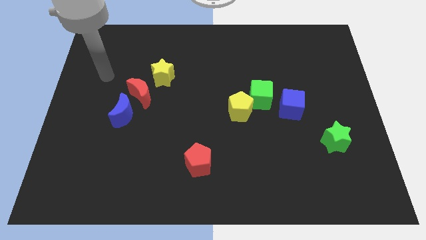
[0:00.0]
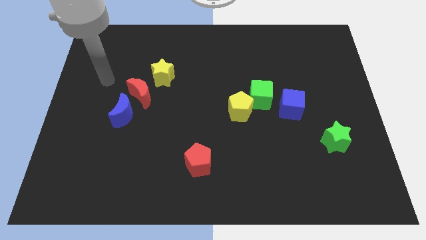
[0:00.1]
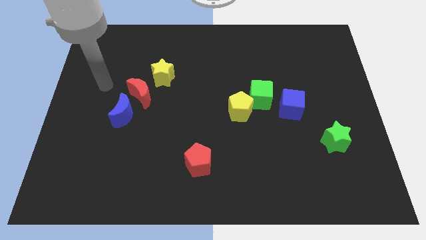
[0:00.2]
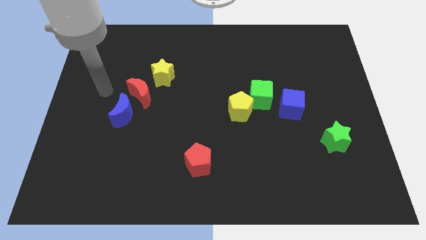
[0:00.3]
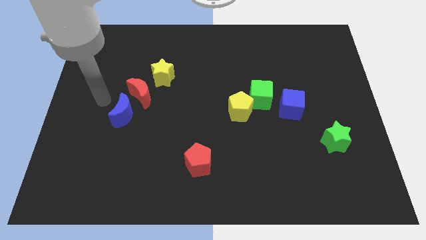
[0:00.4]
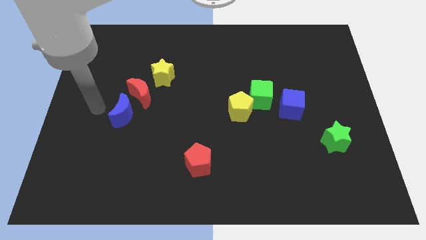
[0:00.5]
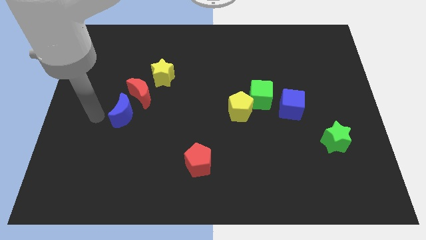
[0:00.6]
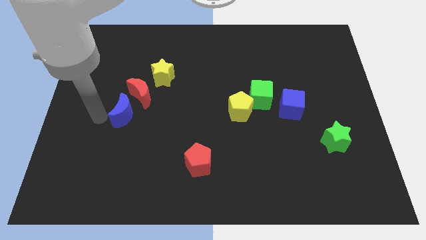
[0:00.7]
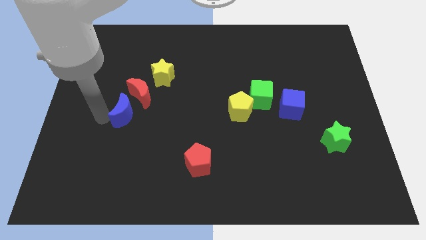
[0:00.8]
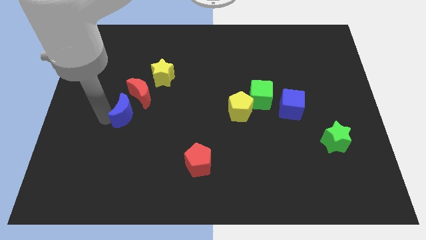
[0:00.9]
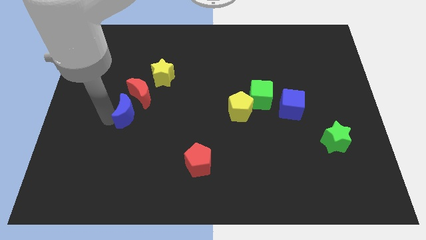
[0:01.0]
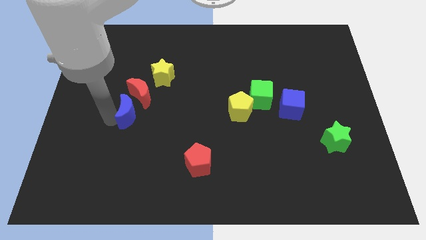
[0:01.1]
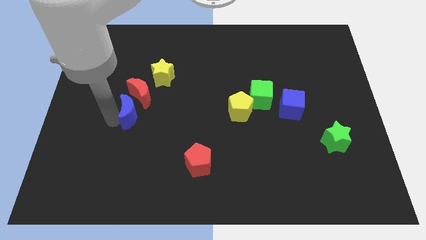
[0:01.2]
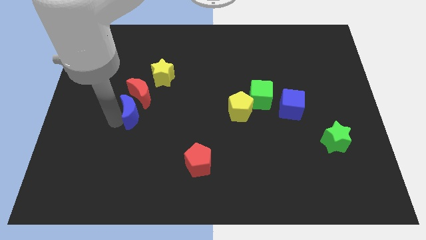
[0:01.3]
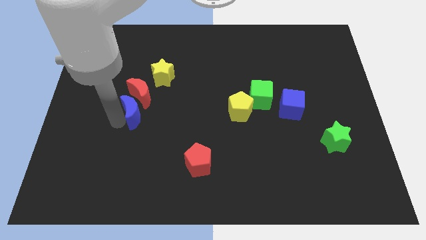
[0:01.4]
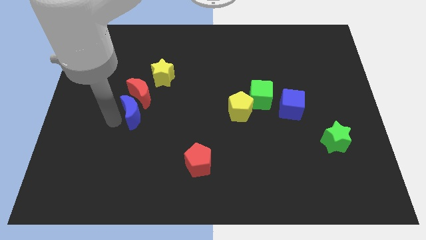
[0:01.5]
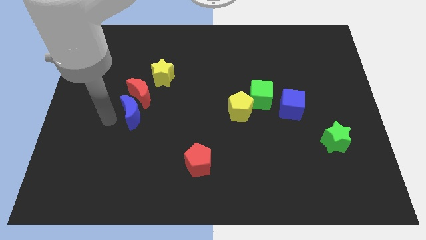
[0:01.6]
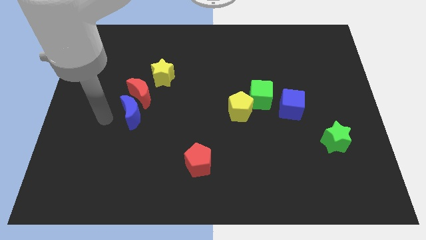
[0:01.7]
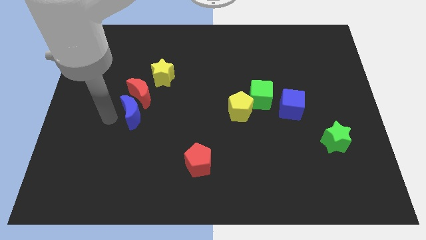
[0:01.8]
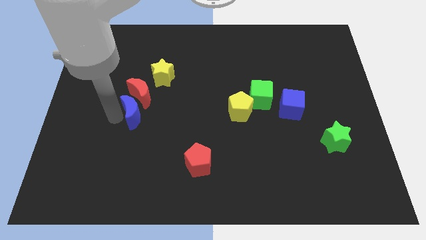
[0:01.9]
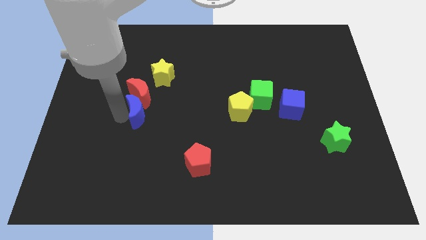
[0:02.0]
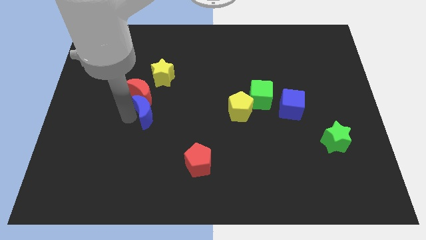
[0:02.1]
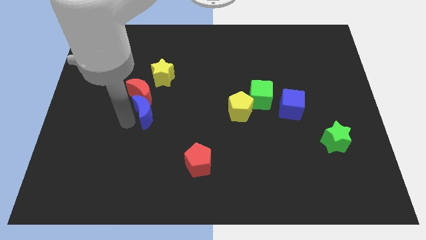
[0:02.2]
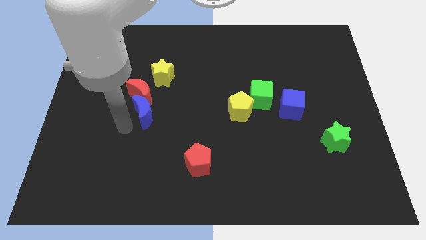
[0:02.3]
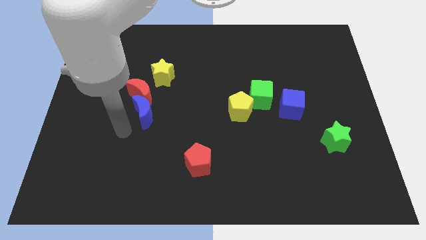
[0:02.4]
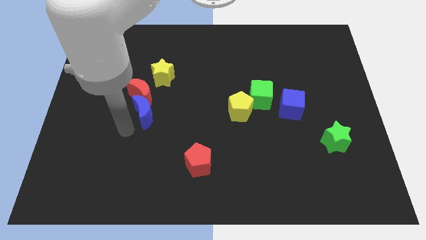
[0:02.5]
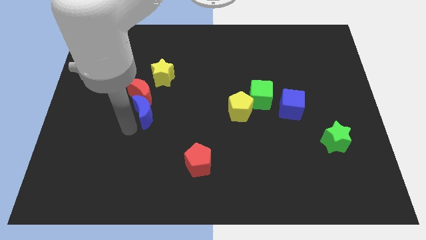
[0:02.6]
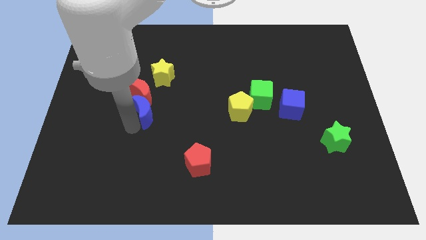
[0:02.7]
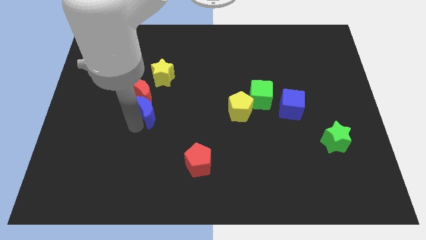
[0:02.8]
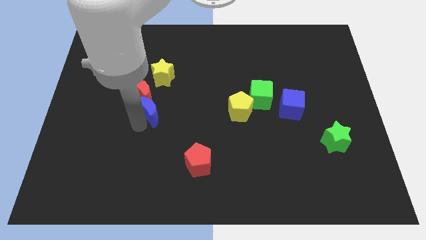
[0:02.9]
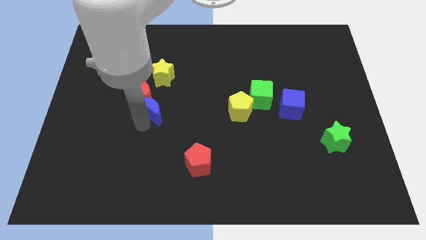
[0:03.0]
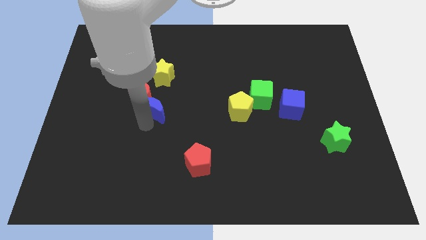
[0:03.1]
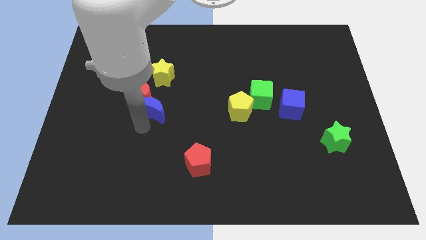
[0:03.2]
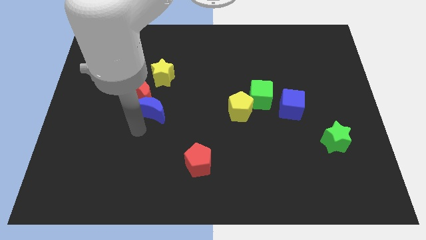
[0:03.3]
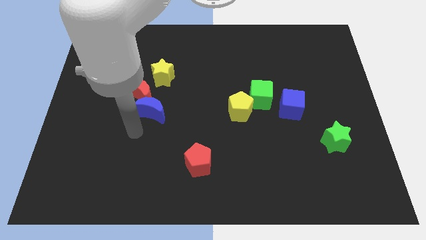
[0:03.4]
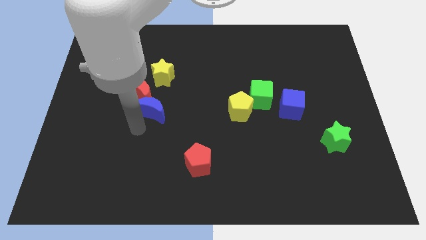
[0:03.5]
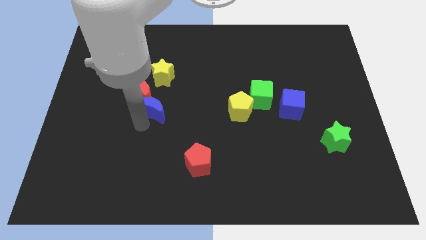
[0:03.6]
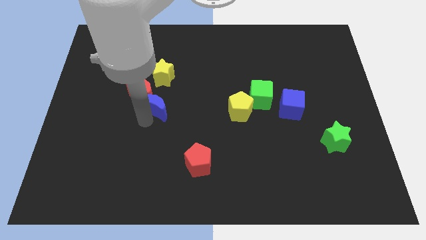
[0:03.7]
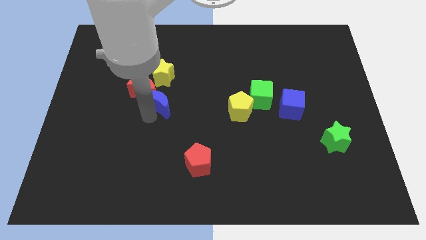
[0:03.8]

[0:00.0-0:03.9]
push the blue moon upwards and then right slightly

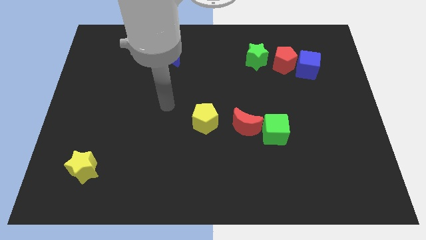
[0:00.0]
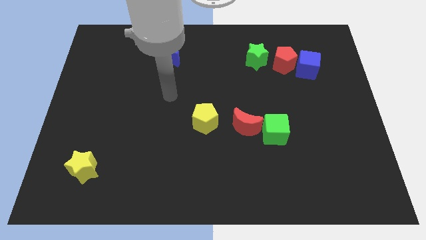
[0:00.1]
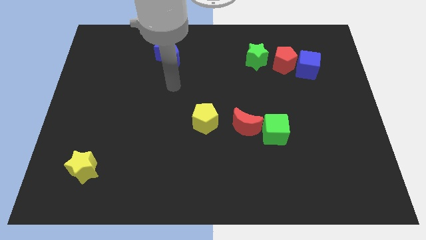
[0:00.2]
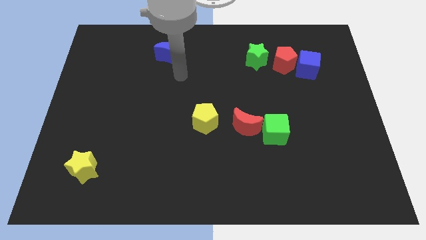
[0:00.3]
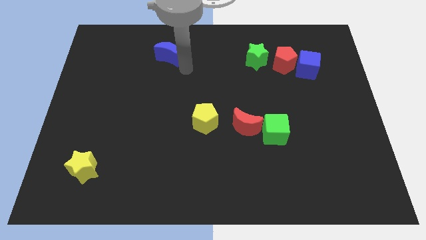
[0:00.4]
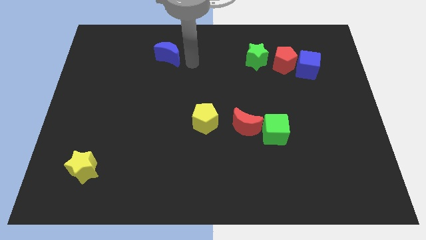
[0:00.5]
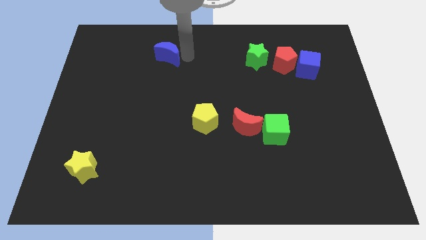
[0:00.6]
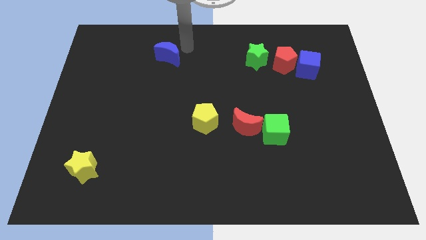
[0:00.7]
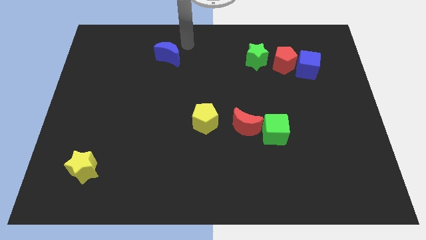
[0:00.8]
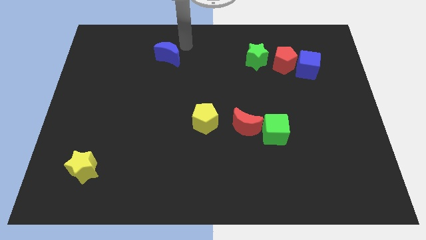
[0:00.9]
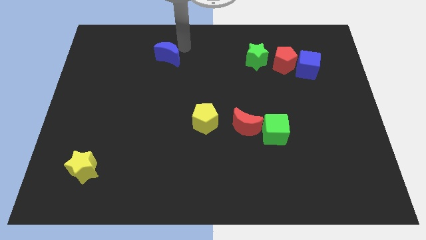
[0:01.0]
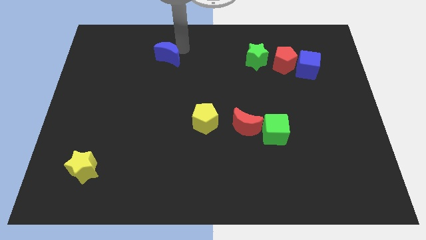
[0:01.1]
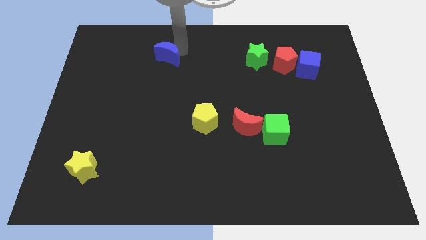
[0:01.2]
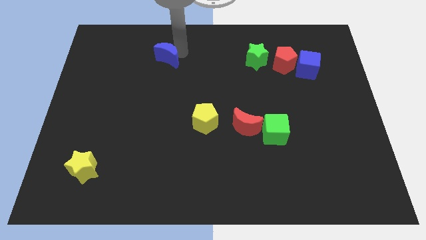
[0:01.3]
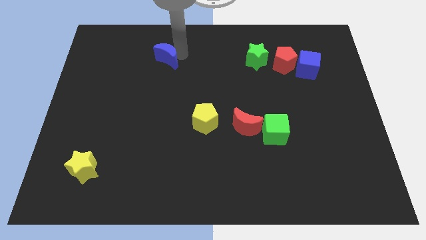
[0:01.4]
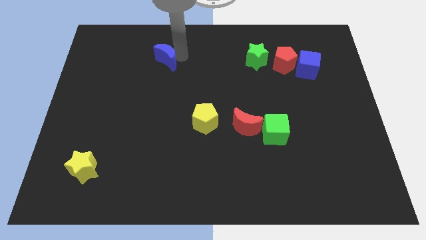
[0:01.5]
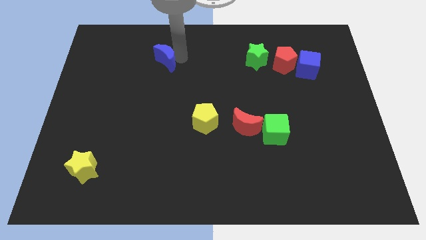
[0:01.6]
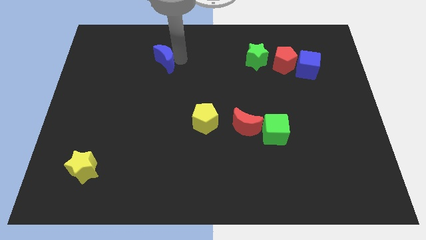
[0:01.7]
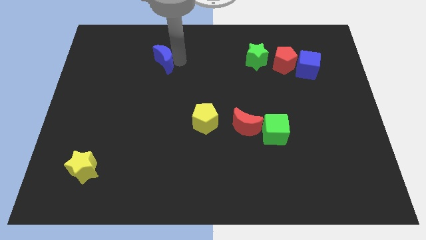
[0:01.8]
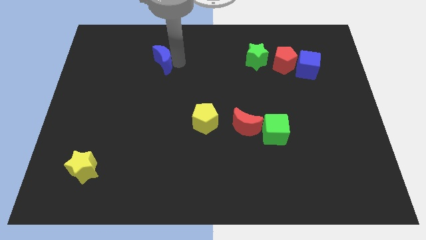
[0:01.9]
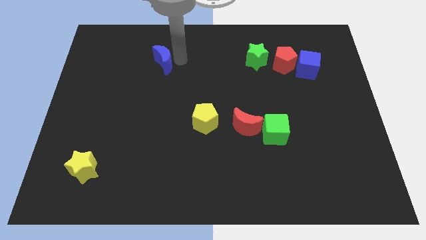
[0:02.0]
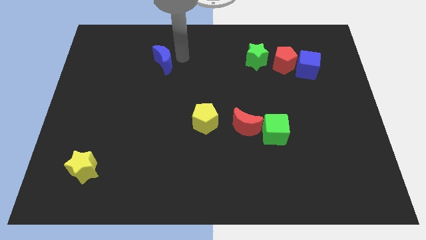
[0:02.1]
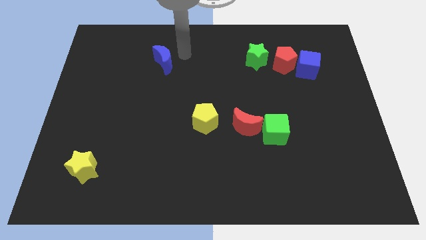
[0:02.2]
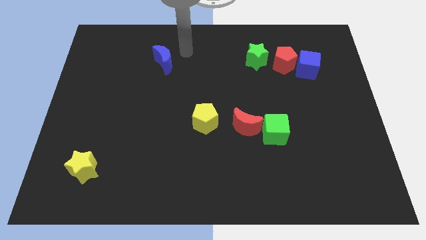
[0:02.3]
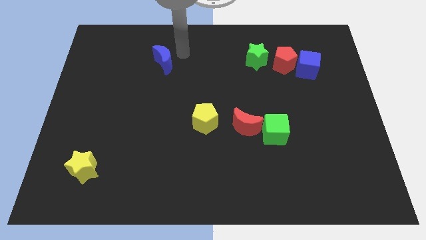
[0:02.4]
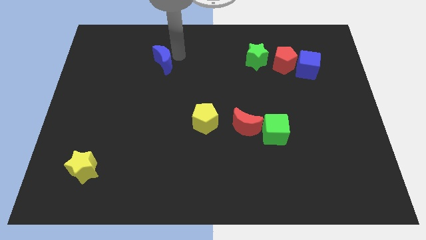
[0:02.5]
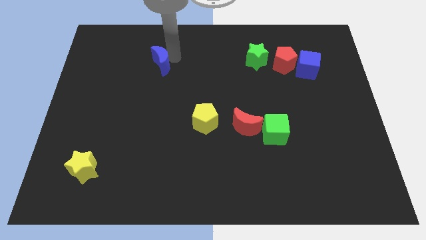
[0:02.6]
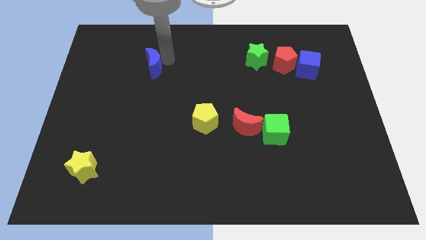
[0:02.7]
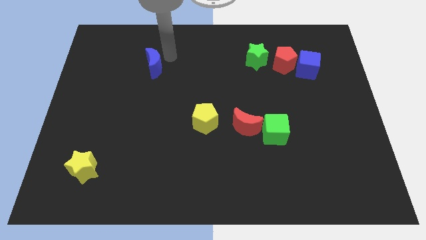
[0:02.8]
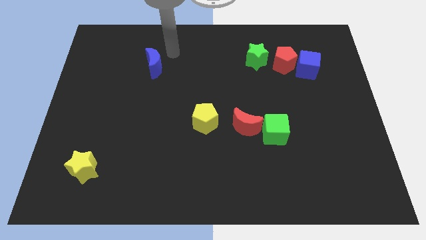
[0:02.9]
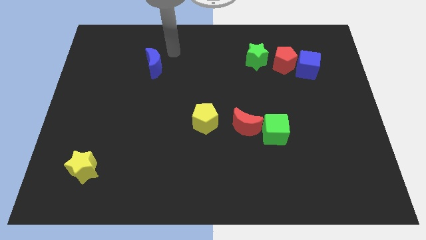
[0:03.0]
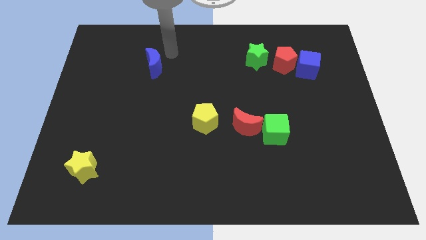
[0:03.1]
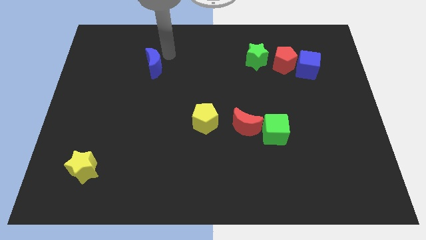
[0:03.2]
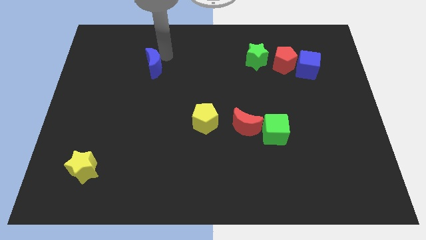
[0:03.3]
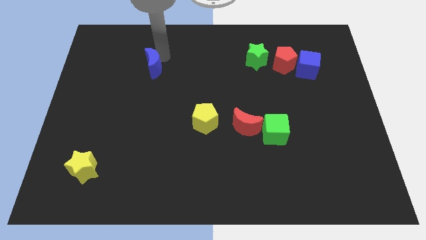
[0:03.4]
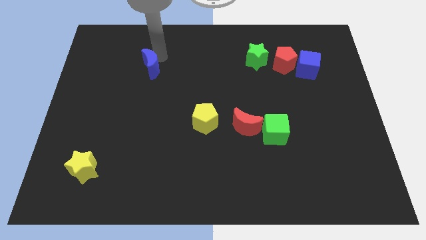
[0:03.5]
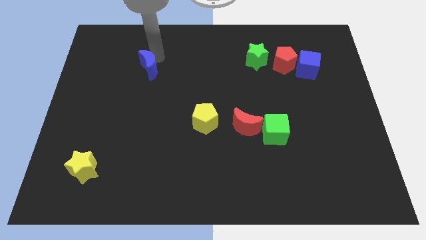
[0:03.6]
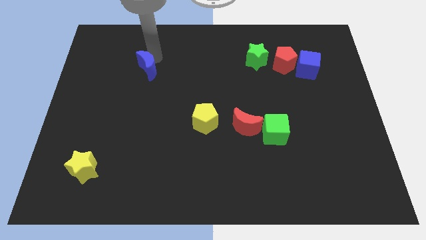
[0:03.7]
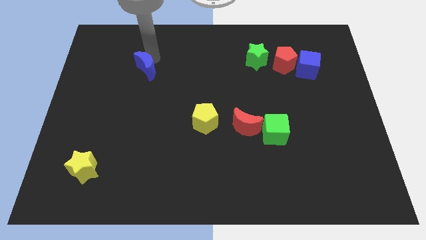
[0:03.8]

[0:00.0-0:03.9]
move the blue moon diagonally downwards and left a little

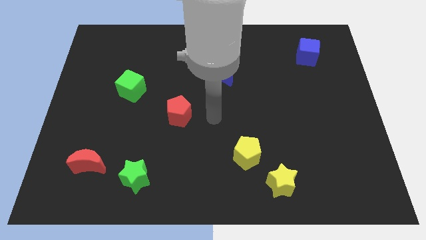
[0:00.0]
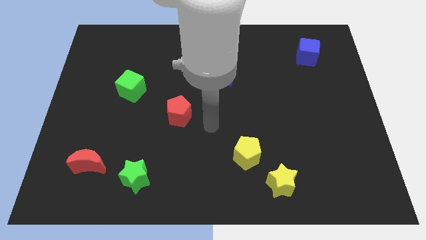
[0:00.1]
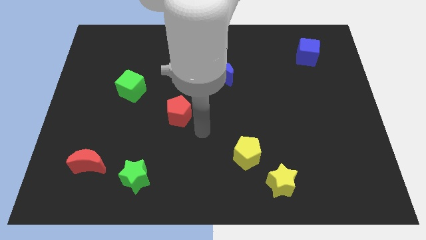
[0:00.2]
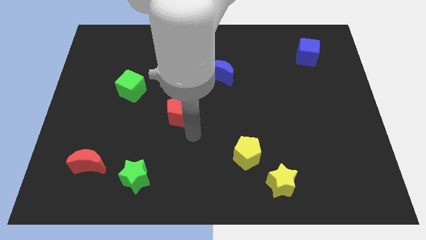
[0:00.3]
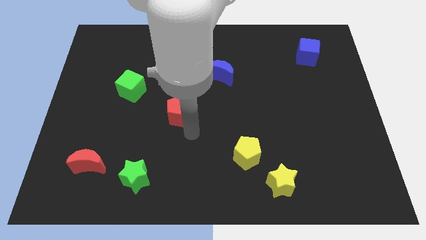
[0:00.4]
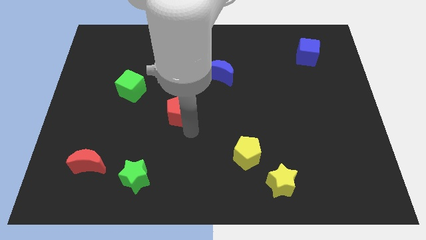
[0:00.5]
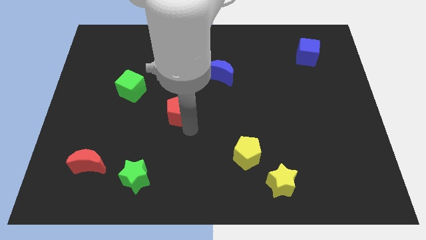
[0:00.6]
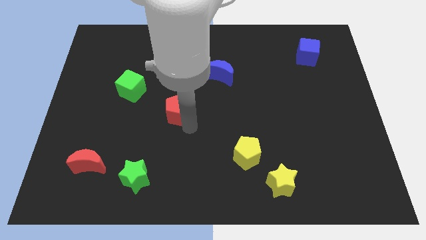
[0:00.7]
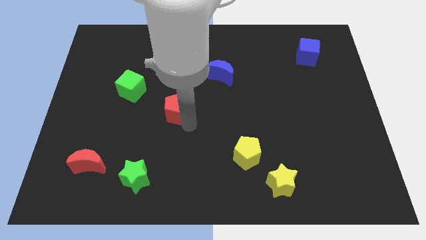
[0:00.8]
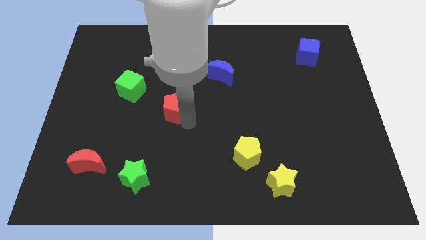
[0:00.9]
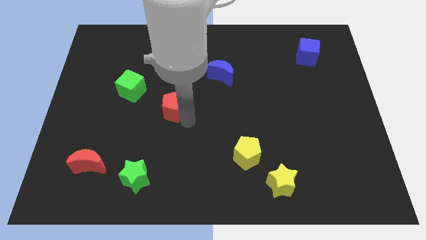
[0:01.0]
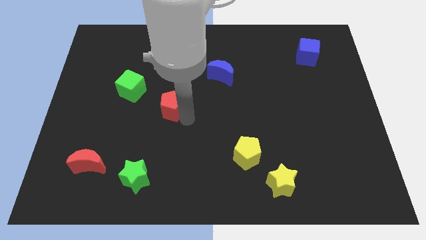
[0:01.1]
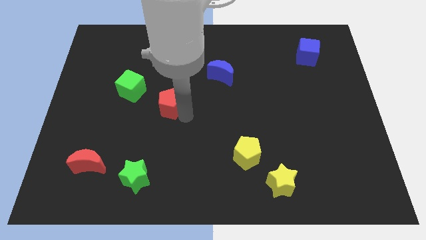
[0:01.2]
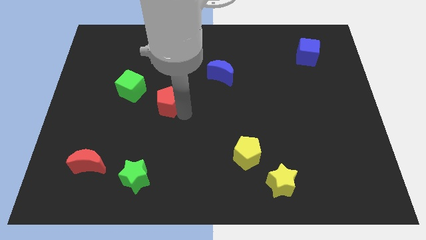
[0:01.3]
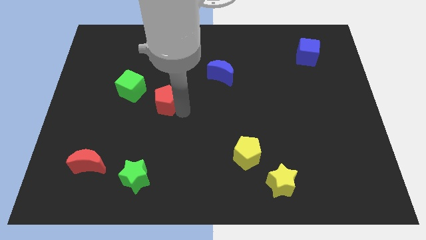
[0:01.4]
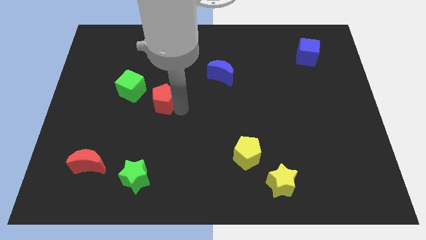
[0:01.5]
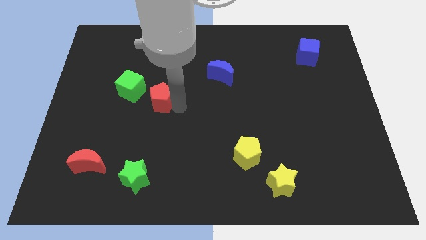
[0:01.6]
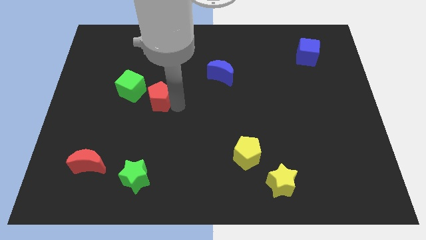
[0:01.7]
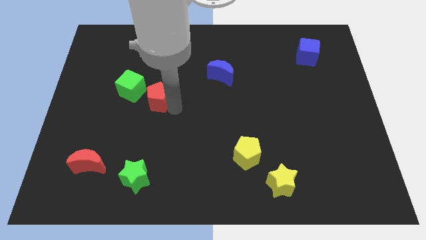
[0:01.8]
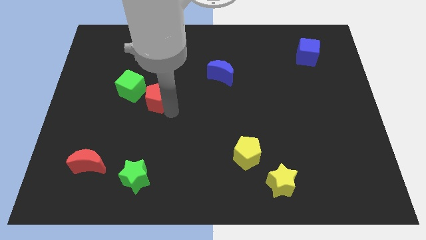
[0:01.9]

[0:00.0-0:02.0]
move the red pentagon up and then to the left a bit
